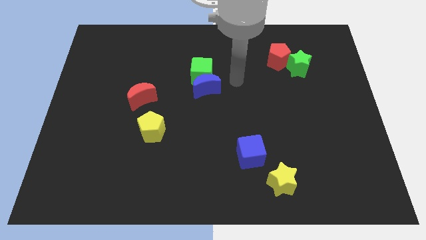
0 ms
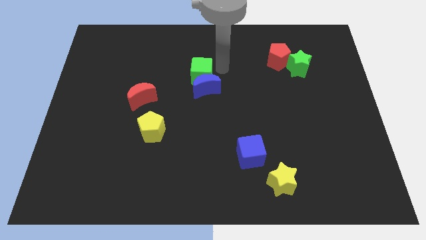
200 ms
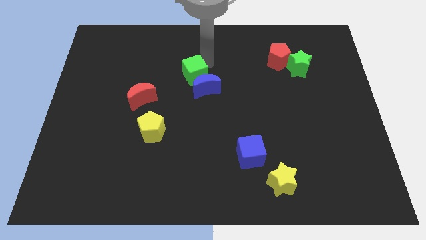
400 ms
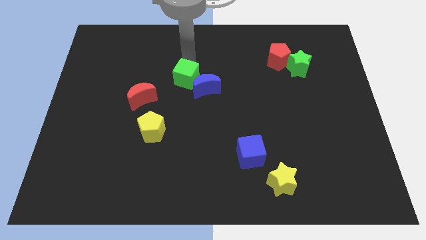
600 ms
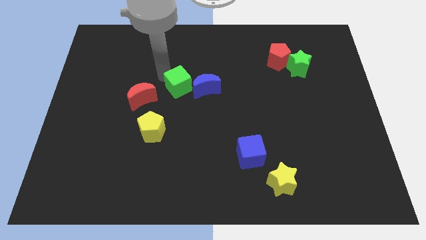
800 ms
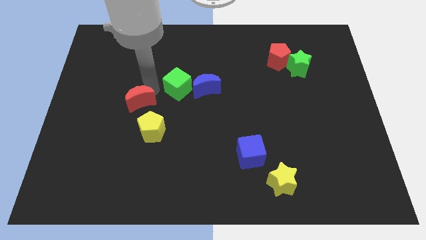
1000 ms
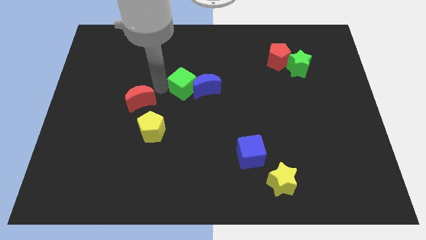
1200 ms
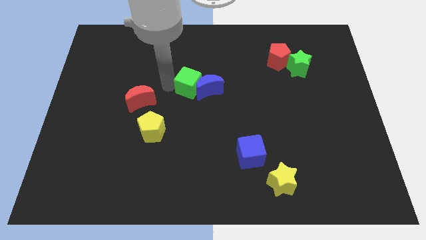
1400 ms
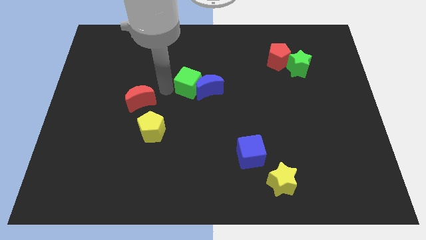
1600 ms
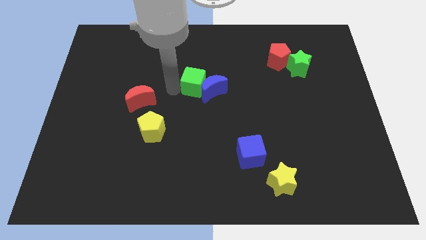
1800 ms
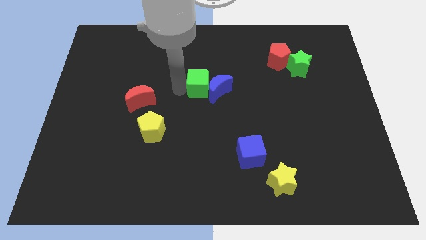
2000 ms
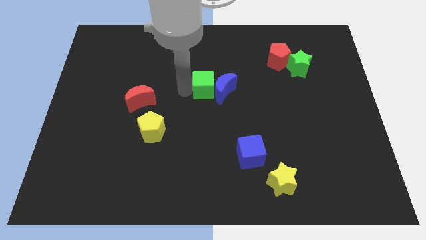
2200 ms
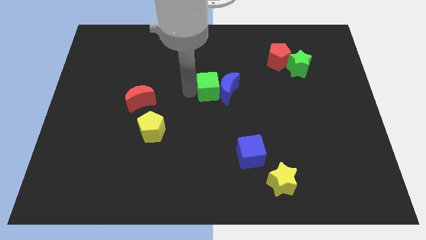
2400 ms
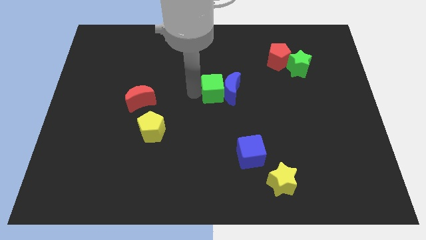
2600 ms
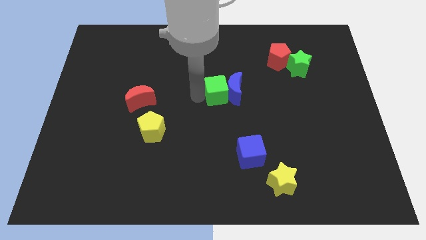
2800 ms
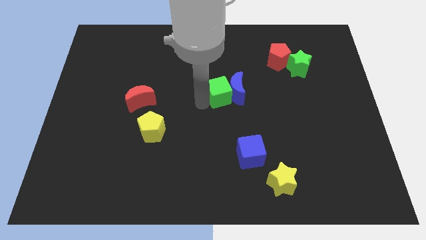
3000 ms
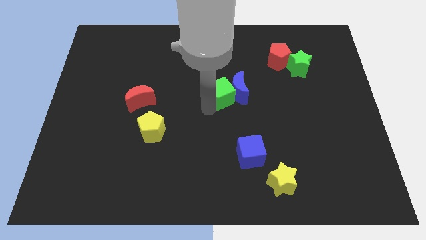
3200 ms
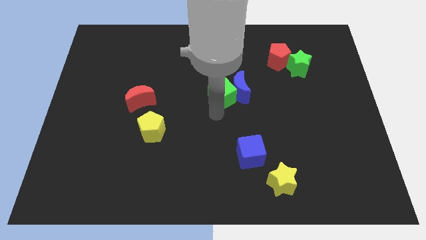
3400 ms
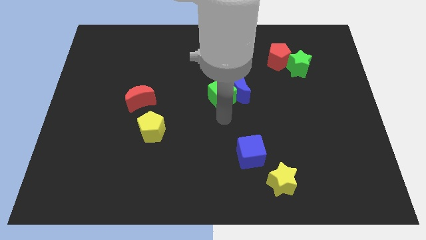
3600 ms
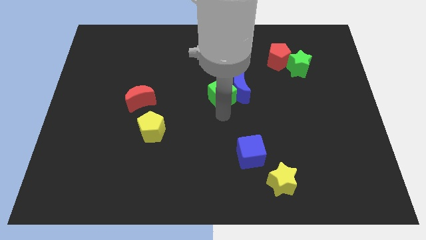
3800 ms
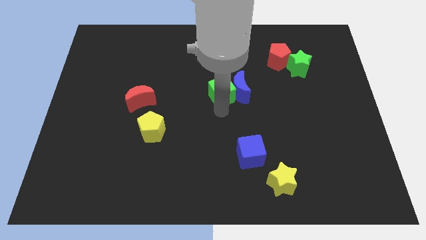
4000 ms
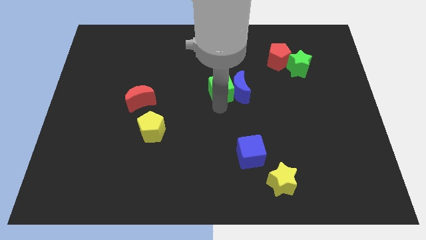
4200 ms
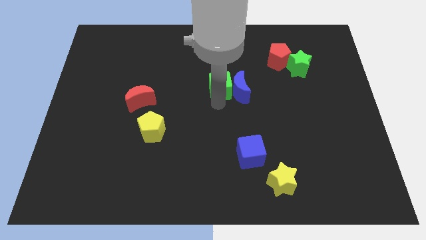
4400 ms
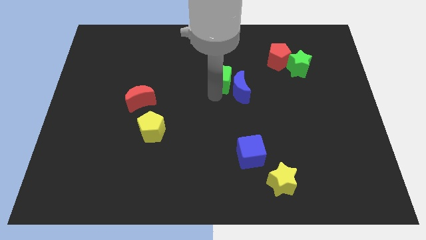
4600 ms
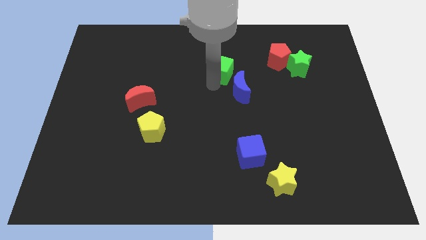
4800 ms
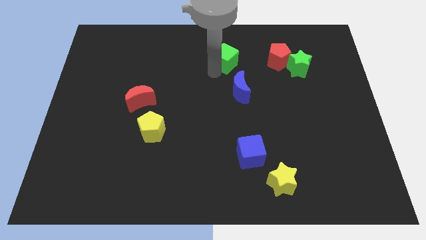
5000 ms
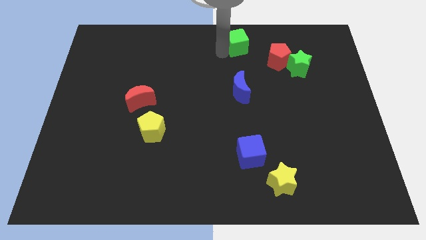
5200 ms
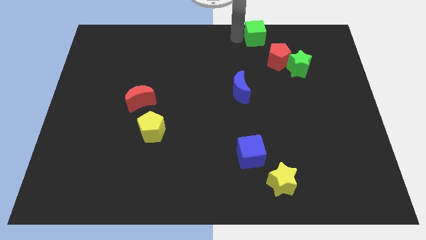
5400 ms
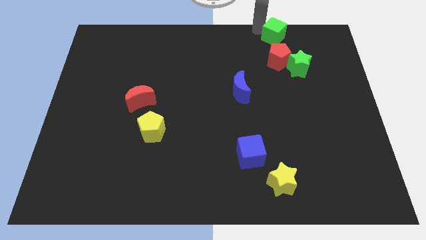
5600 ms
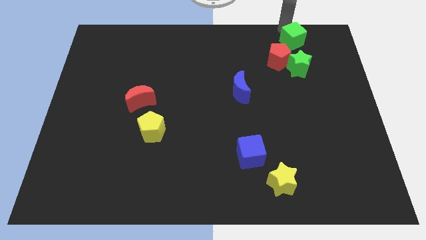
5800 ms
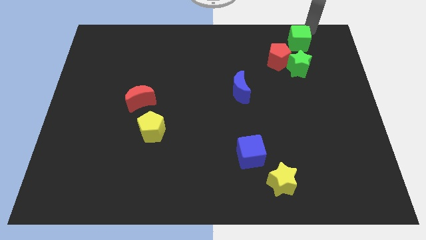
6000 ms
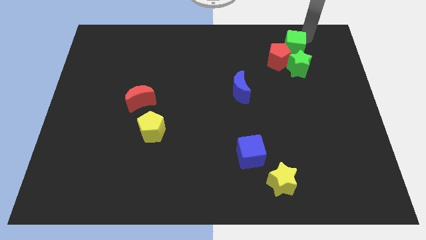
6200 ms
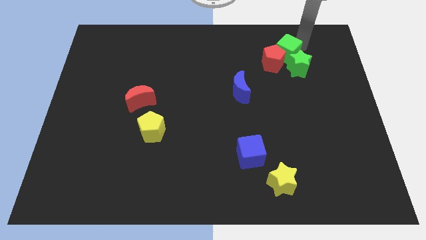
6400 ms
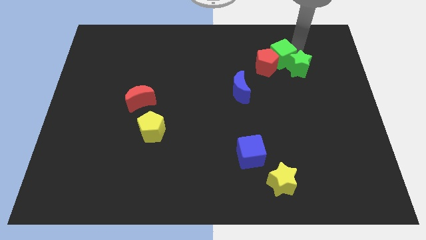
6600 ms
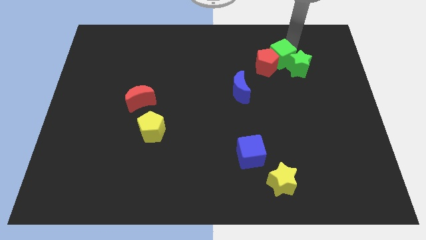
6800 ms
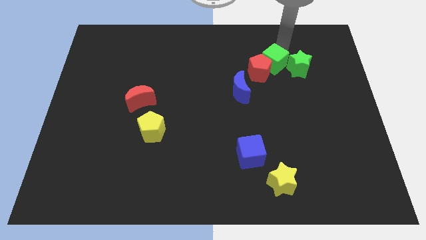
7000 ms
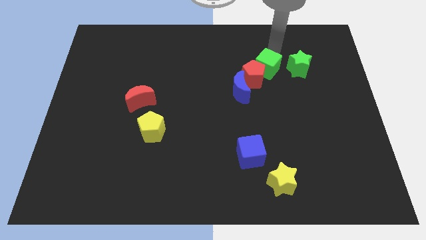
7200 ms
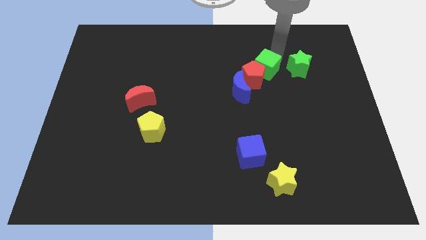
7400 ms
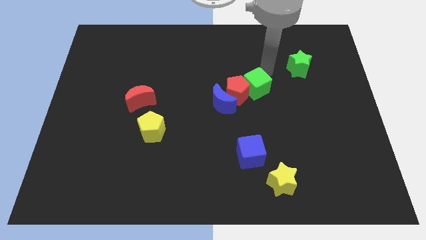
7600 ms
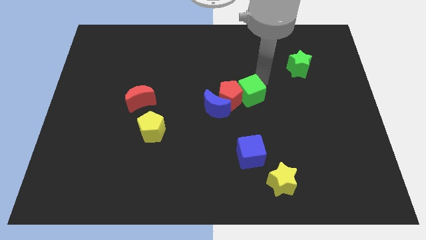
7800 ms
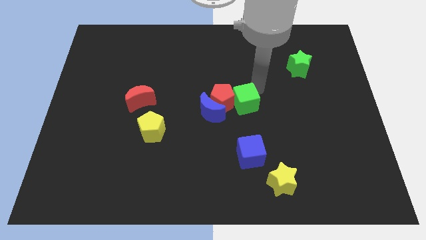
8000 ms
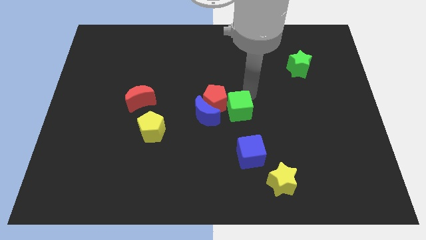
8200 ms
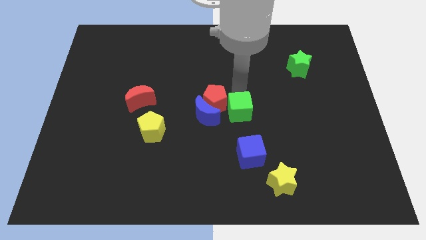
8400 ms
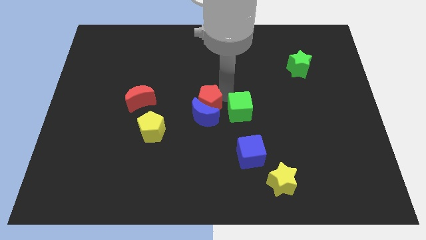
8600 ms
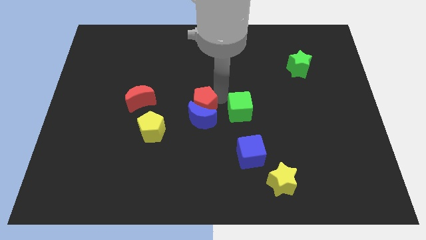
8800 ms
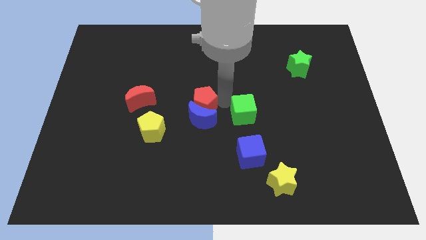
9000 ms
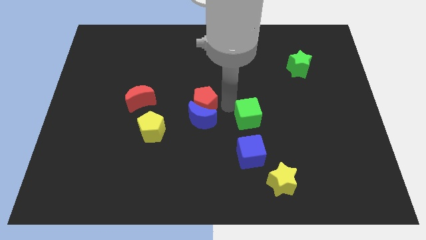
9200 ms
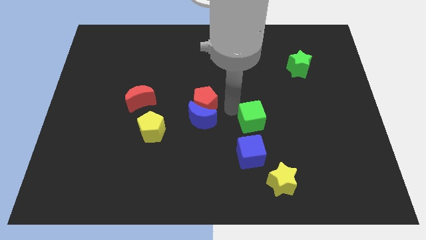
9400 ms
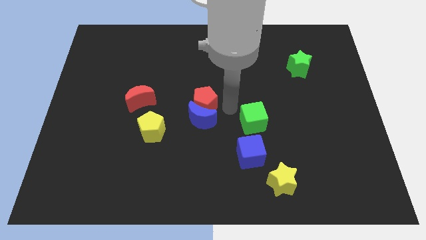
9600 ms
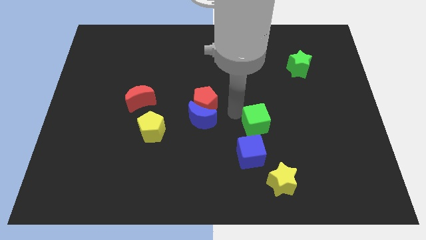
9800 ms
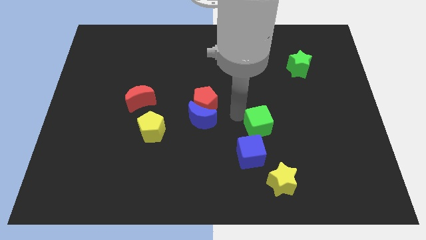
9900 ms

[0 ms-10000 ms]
push the green cube down and to the right diagonally

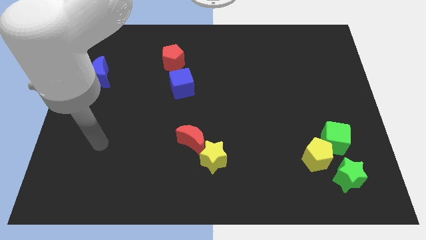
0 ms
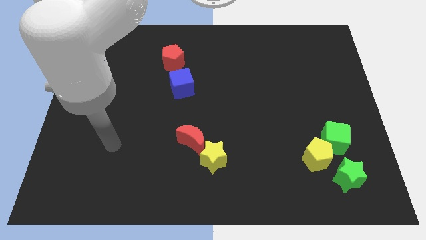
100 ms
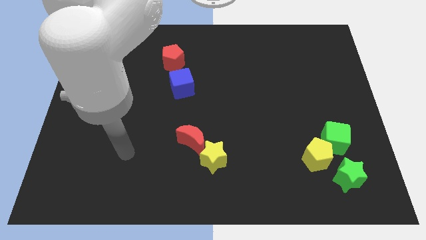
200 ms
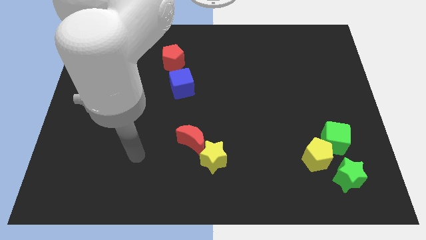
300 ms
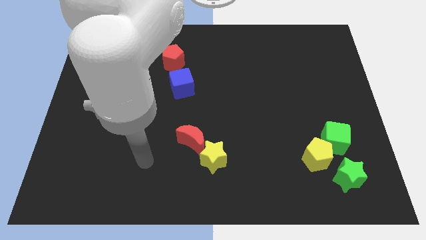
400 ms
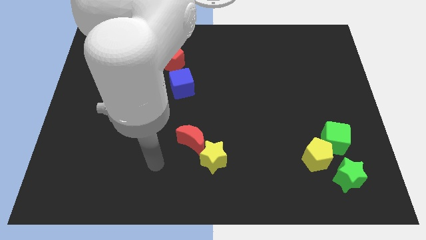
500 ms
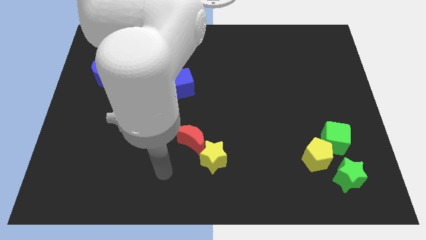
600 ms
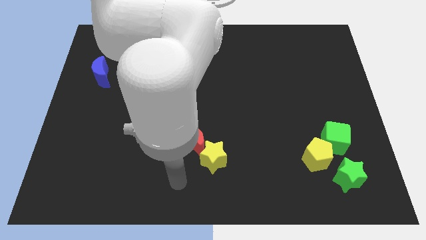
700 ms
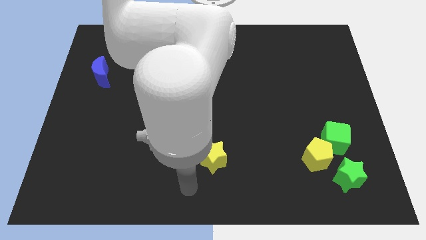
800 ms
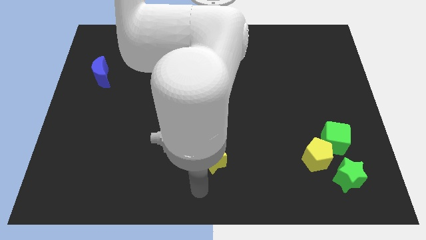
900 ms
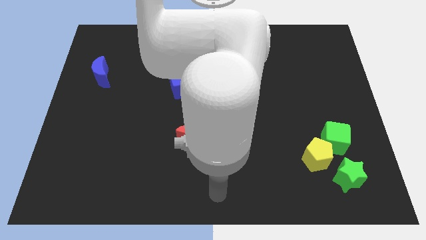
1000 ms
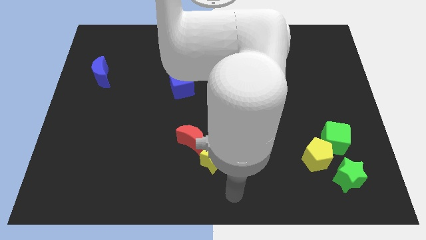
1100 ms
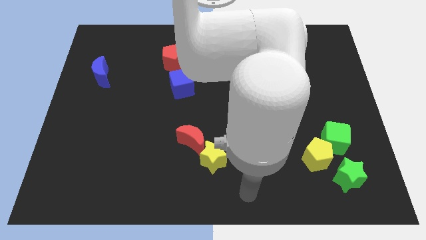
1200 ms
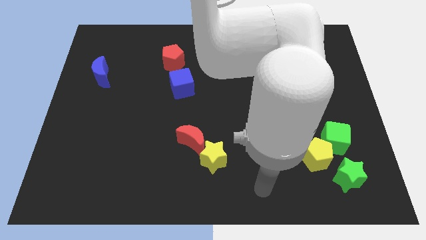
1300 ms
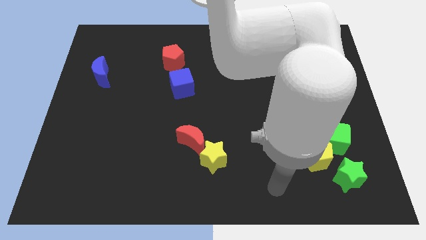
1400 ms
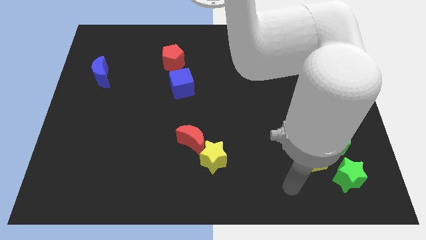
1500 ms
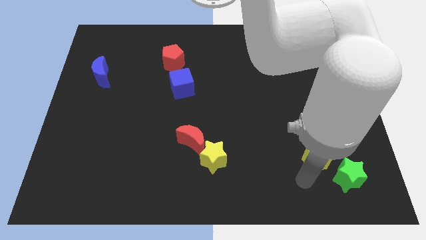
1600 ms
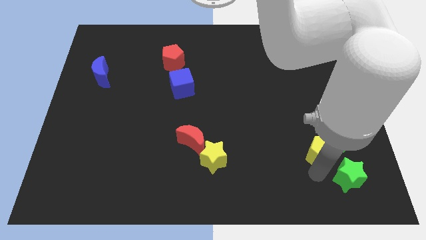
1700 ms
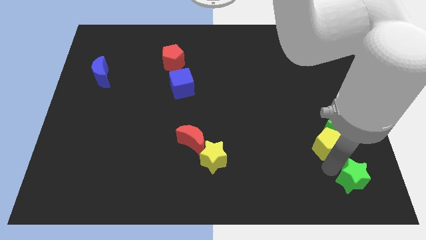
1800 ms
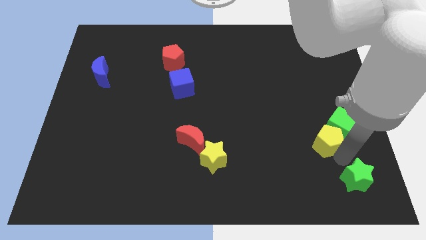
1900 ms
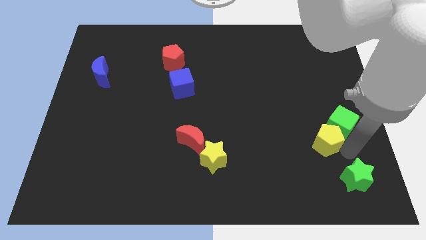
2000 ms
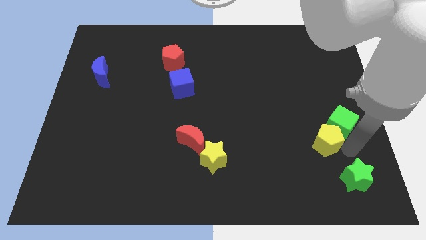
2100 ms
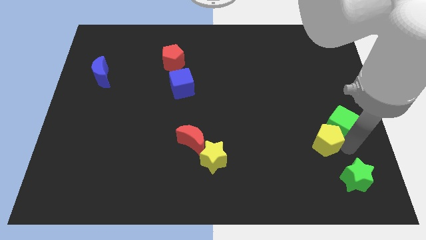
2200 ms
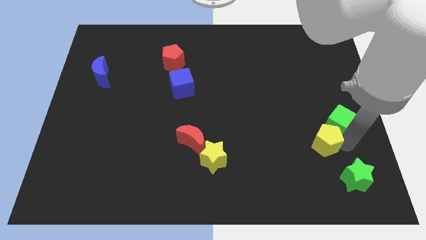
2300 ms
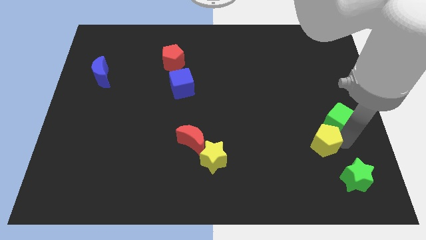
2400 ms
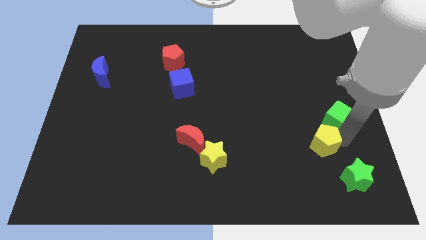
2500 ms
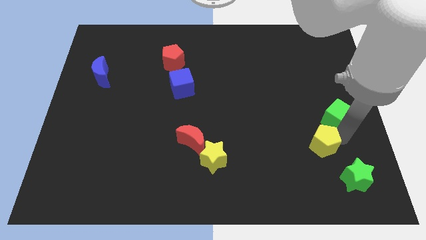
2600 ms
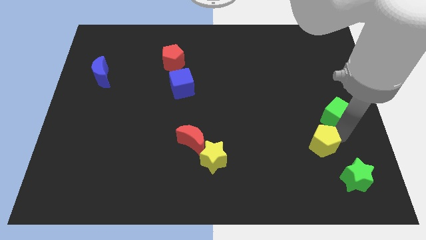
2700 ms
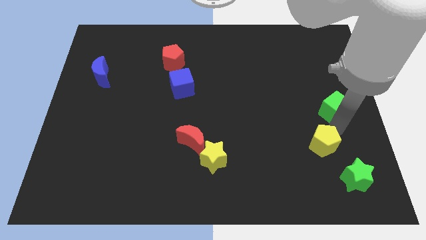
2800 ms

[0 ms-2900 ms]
slide the green cube slightly upwards
